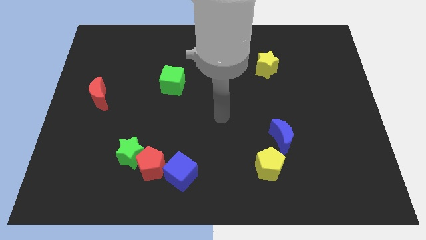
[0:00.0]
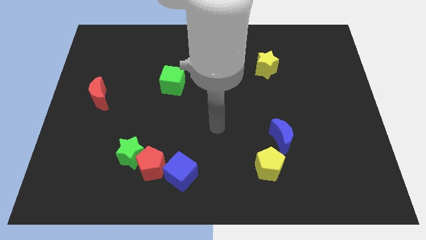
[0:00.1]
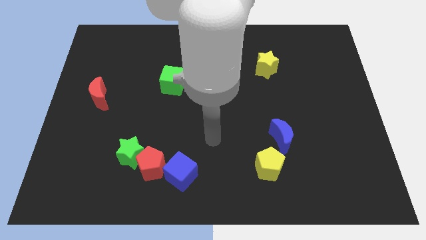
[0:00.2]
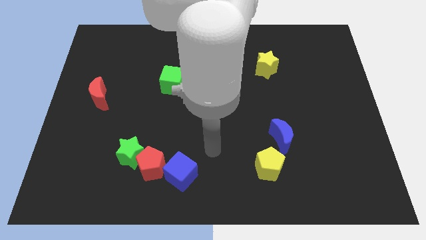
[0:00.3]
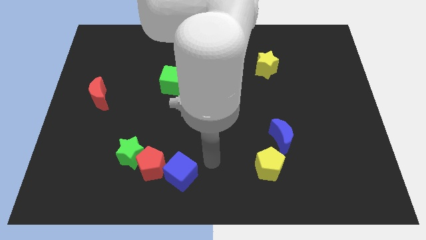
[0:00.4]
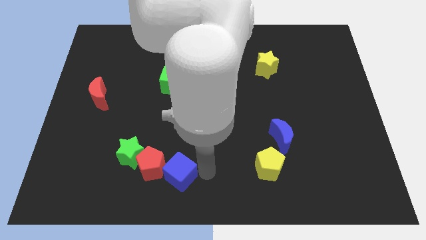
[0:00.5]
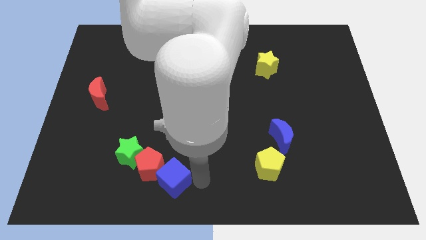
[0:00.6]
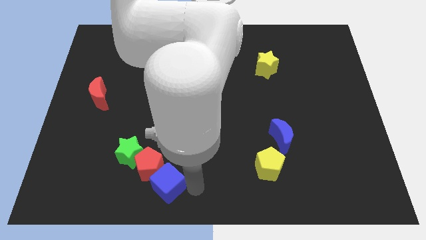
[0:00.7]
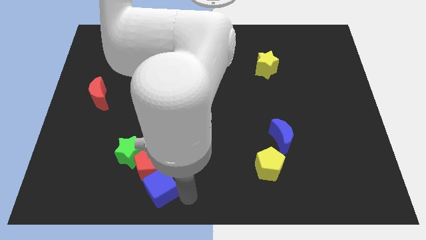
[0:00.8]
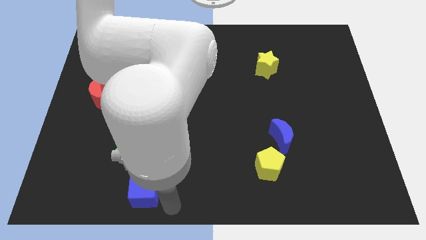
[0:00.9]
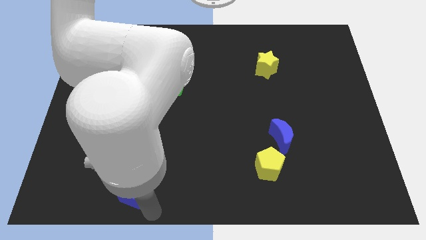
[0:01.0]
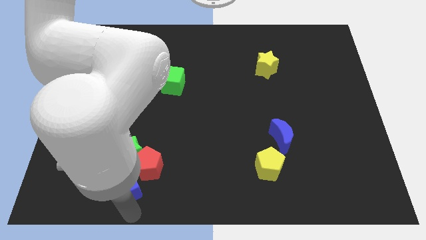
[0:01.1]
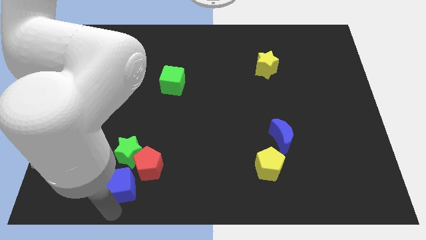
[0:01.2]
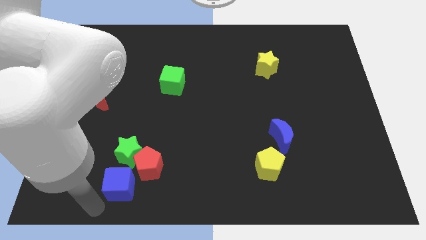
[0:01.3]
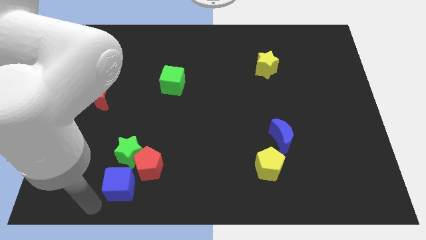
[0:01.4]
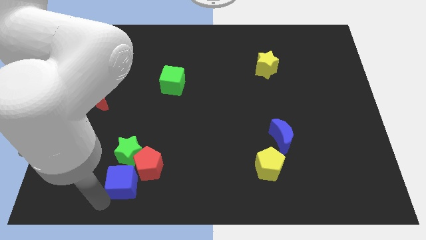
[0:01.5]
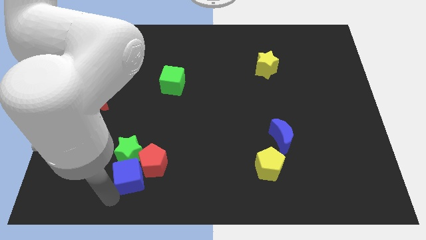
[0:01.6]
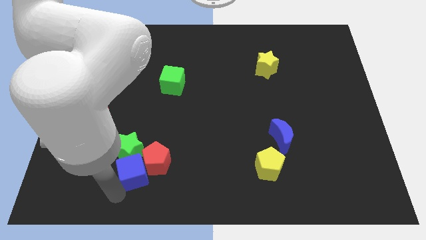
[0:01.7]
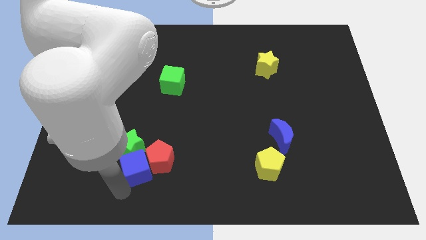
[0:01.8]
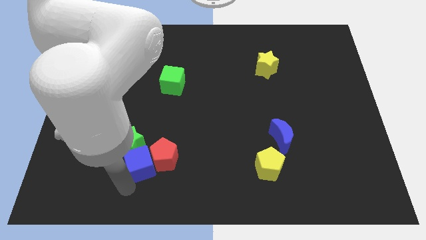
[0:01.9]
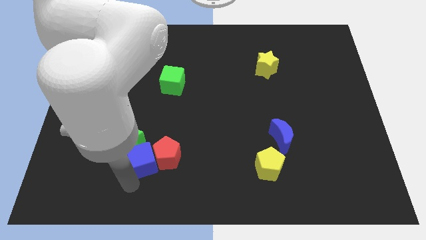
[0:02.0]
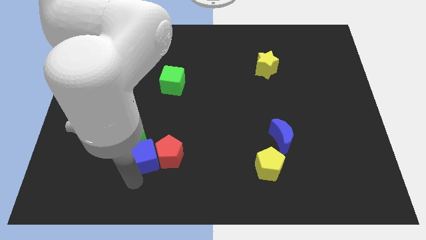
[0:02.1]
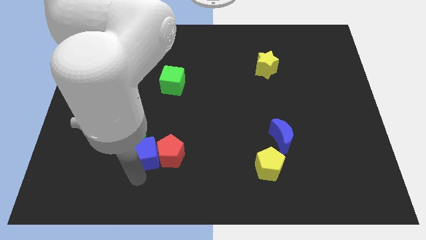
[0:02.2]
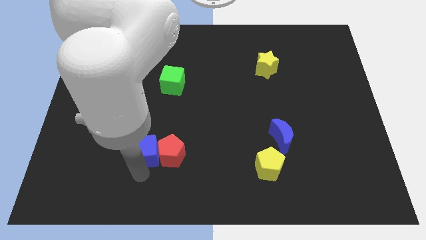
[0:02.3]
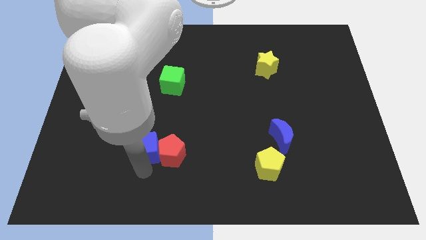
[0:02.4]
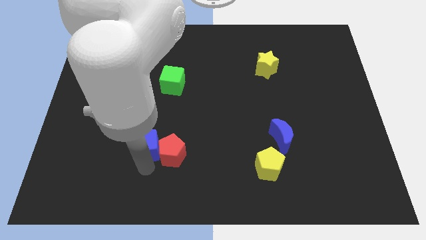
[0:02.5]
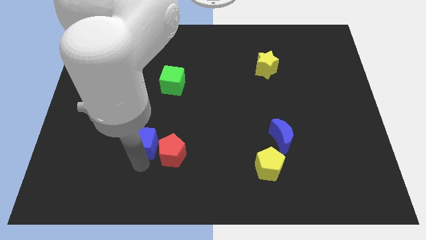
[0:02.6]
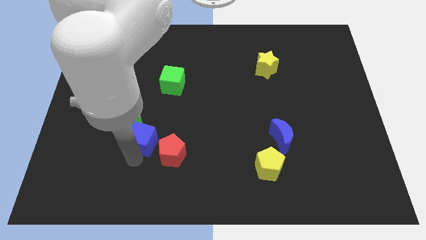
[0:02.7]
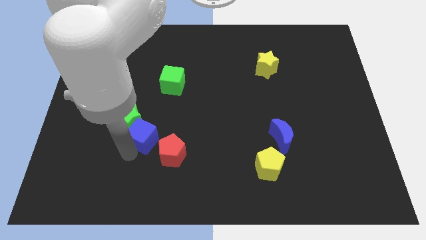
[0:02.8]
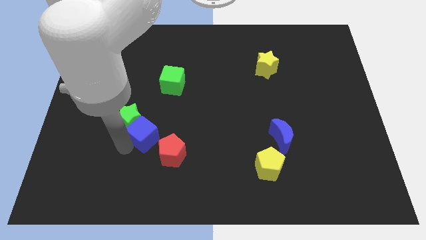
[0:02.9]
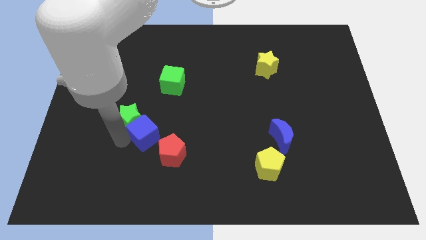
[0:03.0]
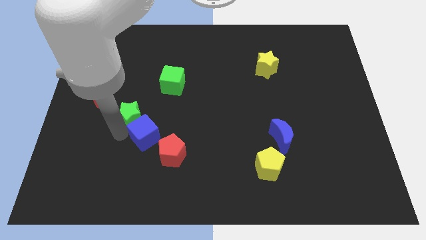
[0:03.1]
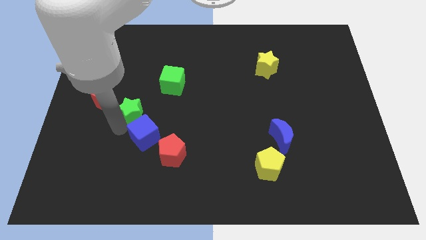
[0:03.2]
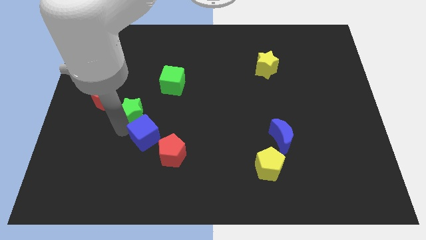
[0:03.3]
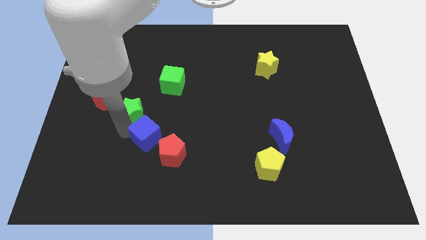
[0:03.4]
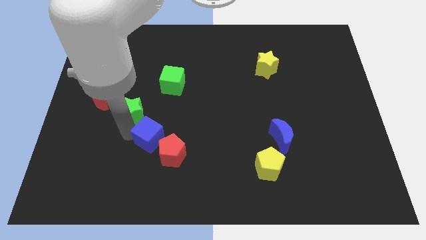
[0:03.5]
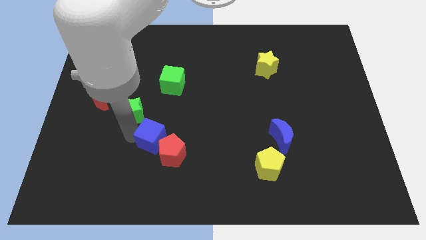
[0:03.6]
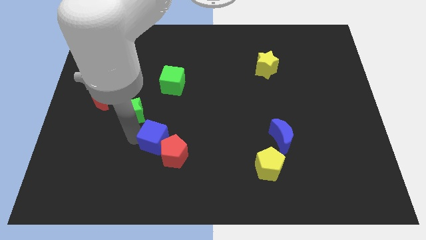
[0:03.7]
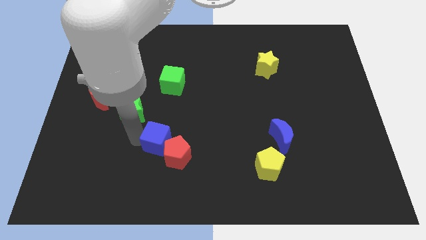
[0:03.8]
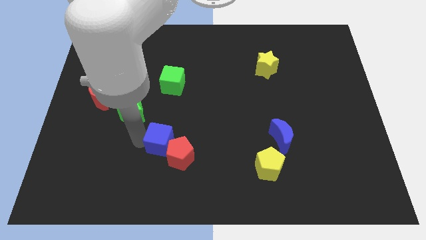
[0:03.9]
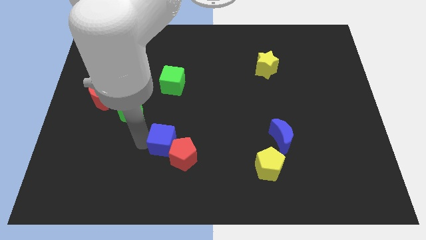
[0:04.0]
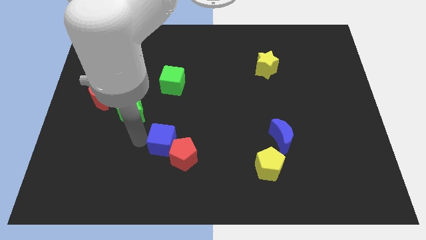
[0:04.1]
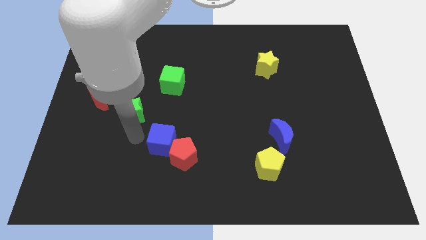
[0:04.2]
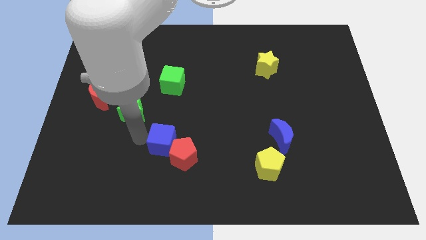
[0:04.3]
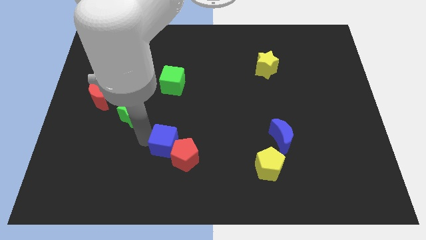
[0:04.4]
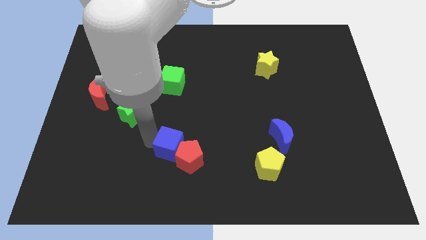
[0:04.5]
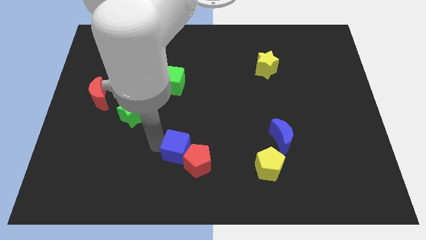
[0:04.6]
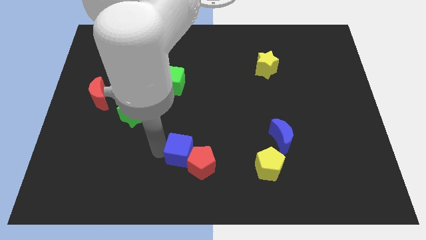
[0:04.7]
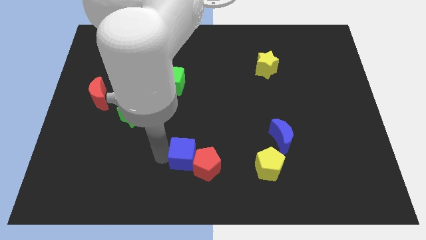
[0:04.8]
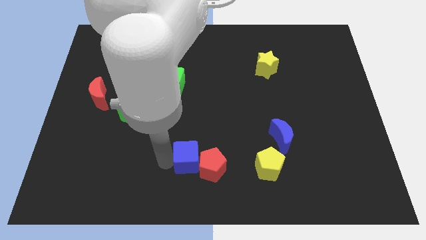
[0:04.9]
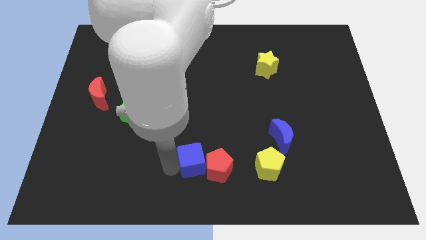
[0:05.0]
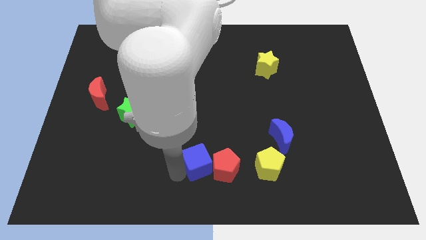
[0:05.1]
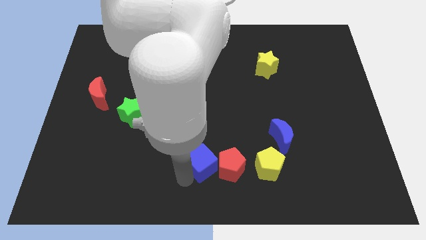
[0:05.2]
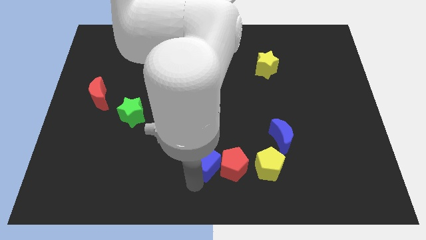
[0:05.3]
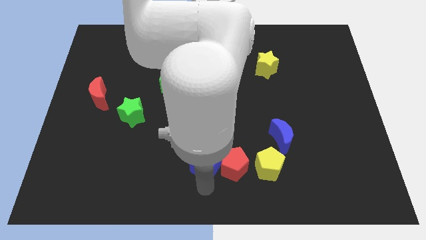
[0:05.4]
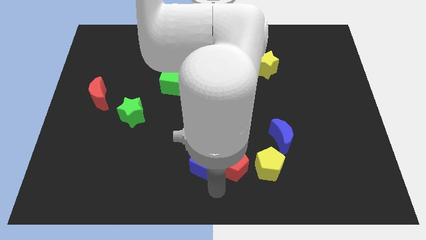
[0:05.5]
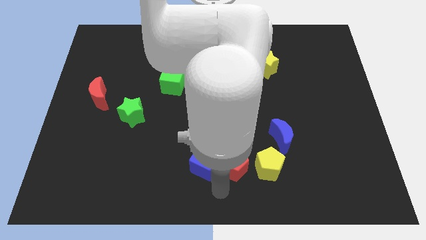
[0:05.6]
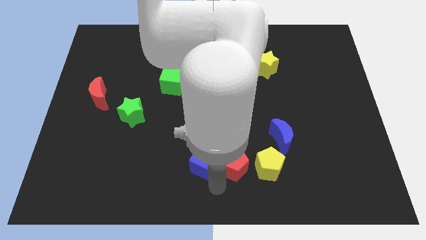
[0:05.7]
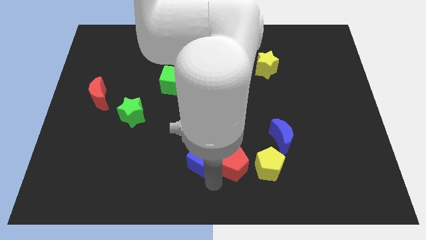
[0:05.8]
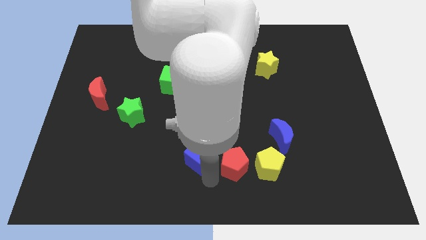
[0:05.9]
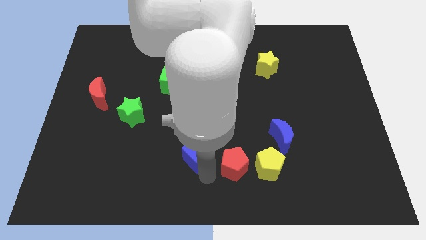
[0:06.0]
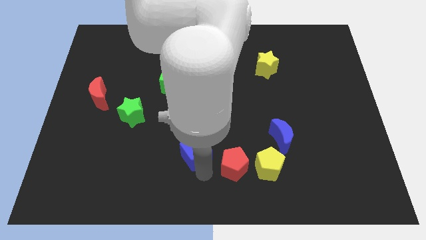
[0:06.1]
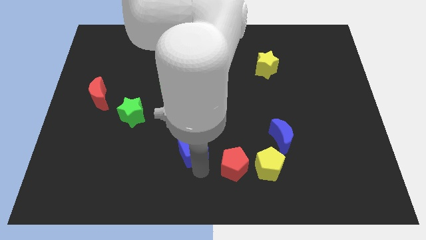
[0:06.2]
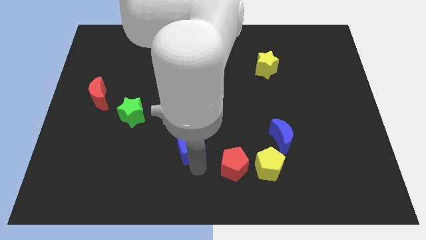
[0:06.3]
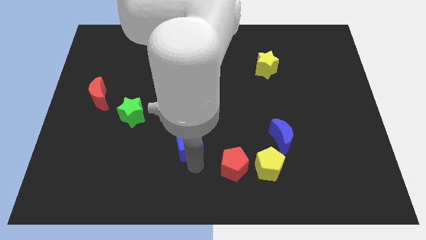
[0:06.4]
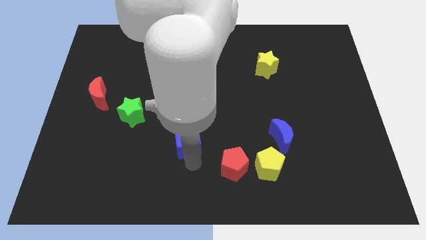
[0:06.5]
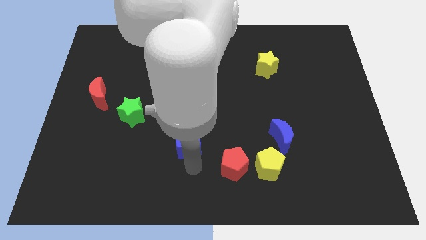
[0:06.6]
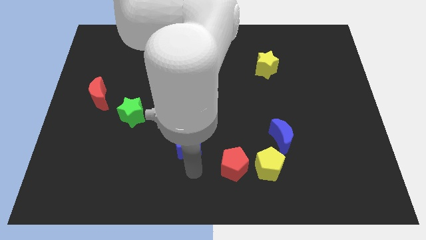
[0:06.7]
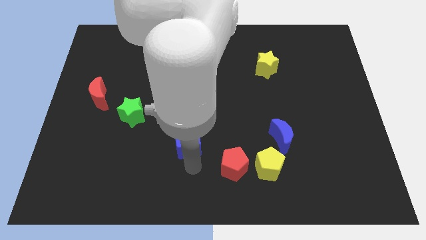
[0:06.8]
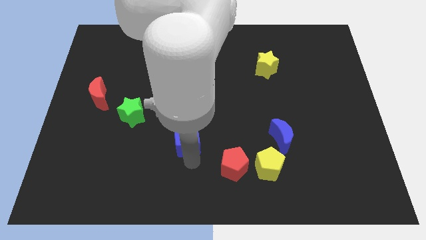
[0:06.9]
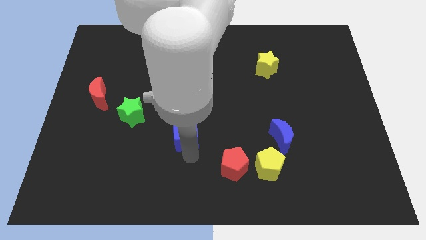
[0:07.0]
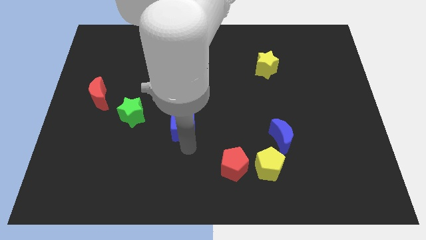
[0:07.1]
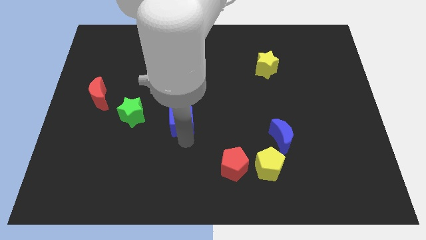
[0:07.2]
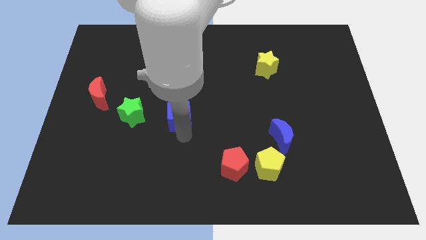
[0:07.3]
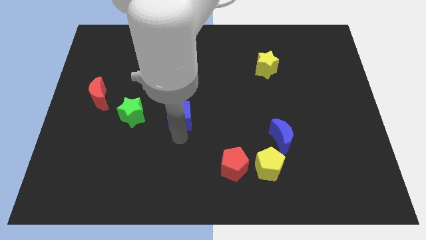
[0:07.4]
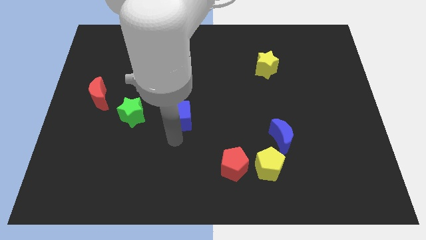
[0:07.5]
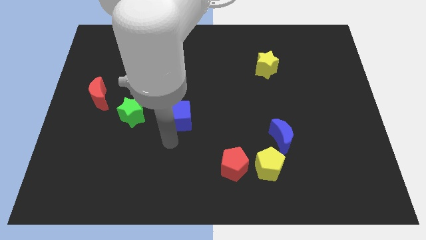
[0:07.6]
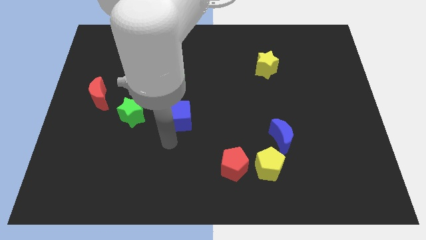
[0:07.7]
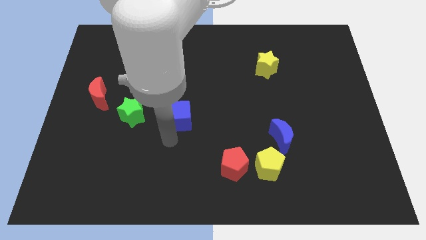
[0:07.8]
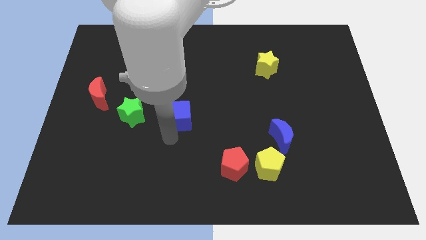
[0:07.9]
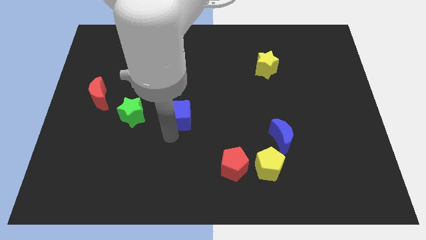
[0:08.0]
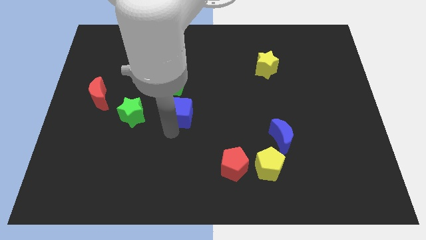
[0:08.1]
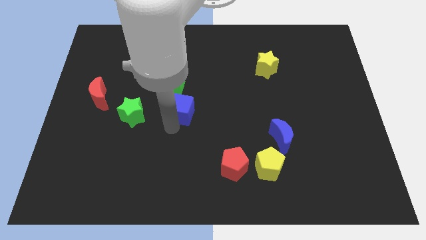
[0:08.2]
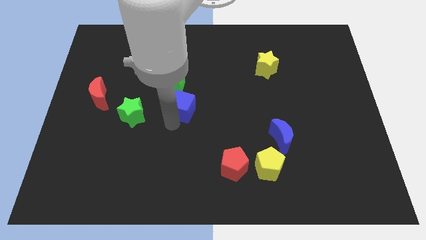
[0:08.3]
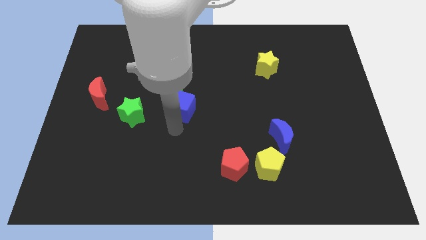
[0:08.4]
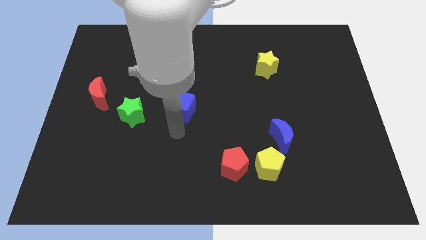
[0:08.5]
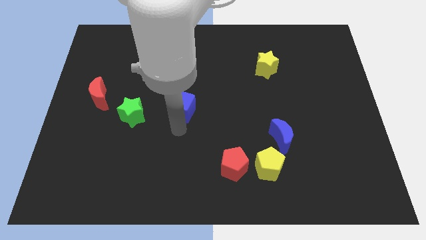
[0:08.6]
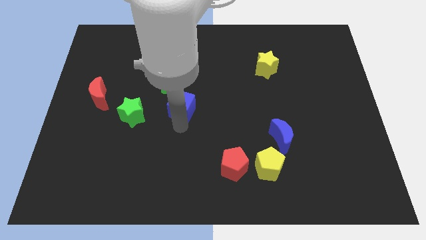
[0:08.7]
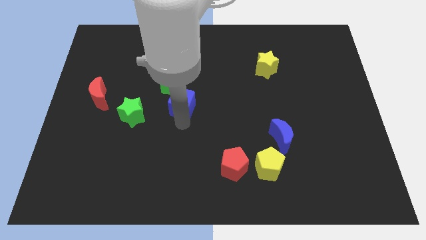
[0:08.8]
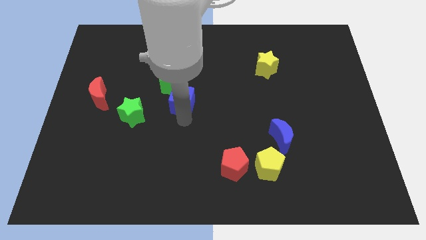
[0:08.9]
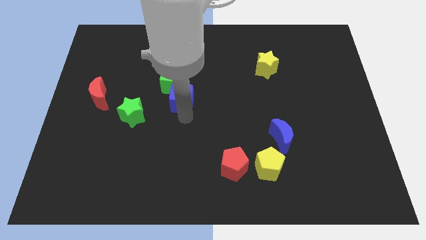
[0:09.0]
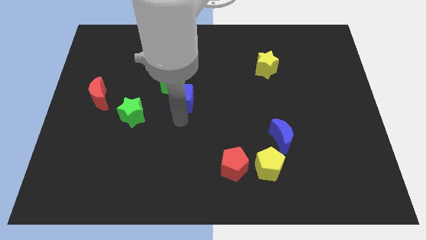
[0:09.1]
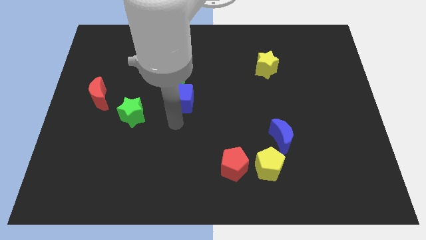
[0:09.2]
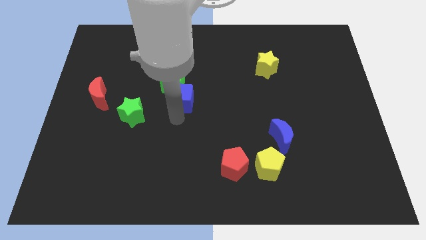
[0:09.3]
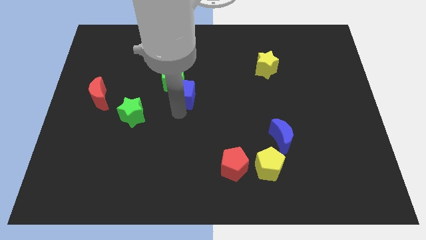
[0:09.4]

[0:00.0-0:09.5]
move the blue cube upwards
